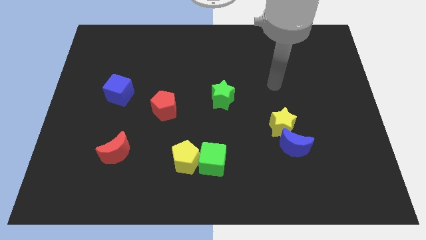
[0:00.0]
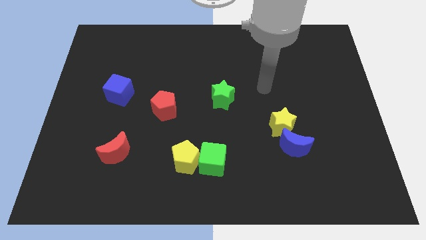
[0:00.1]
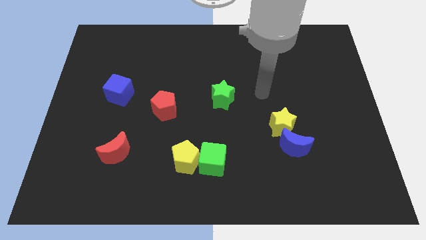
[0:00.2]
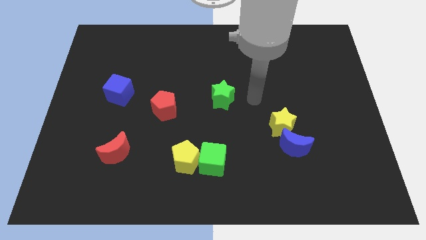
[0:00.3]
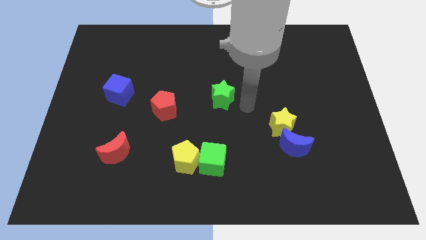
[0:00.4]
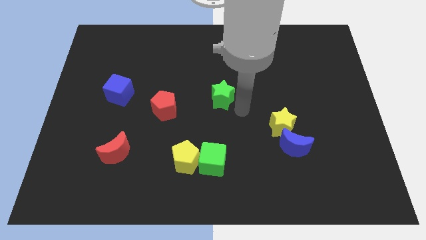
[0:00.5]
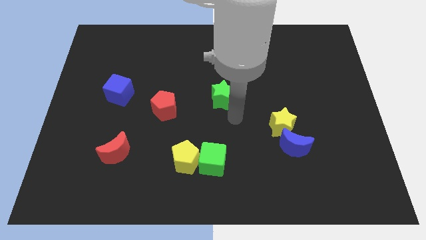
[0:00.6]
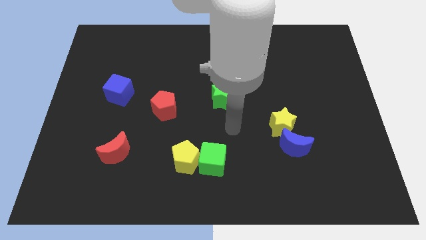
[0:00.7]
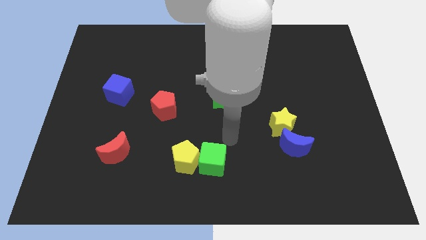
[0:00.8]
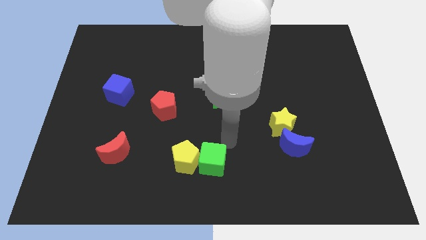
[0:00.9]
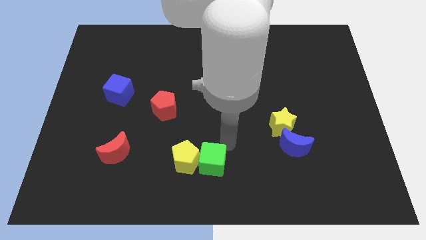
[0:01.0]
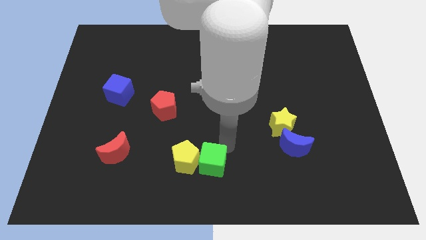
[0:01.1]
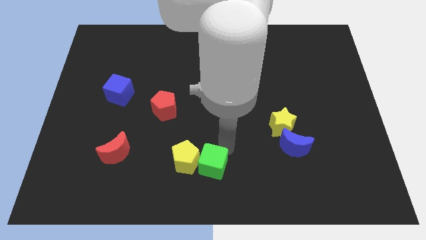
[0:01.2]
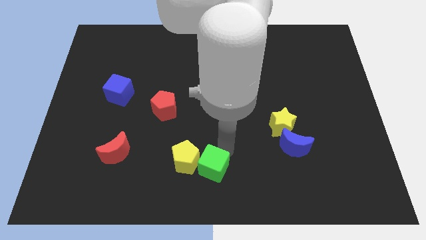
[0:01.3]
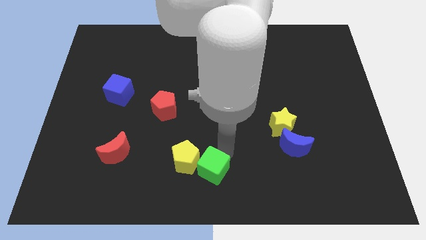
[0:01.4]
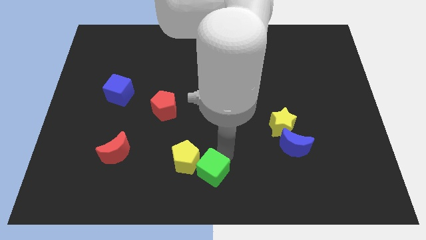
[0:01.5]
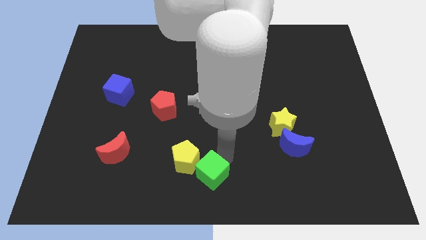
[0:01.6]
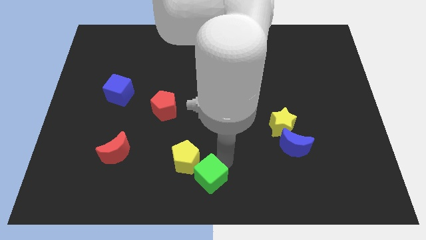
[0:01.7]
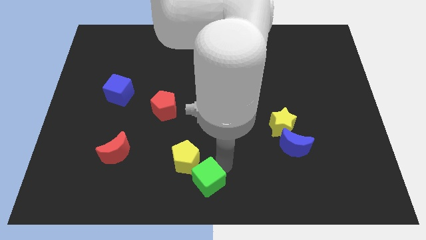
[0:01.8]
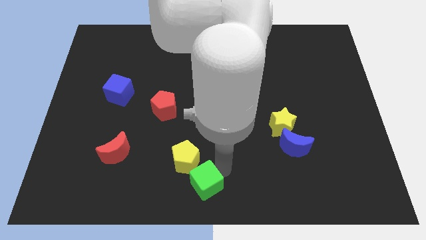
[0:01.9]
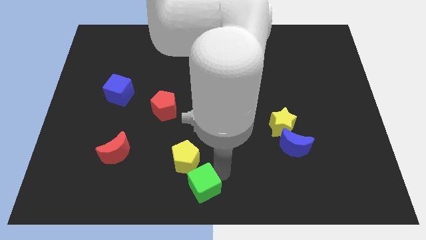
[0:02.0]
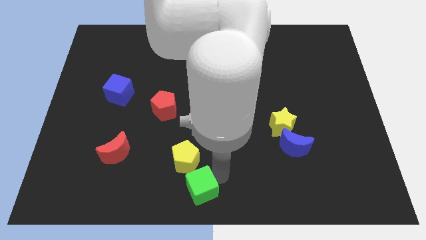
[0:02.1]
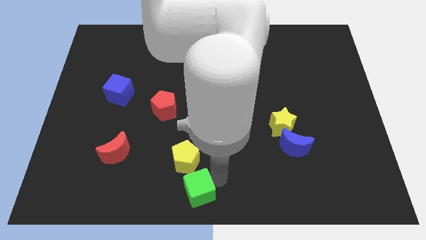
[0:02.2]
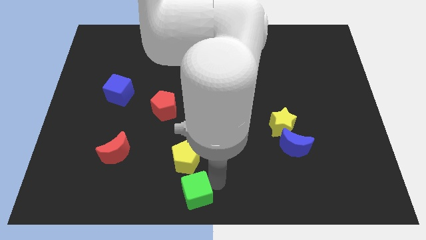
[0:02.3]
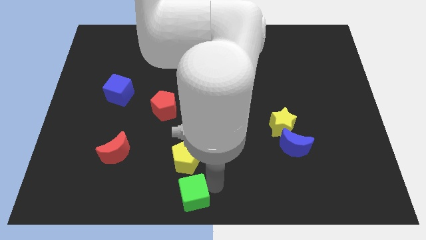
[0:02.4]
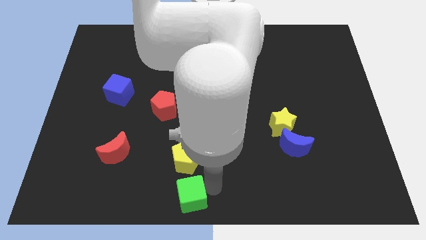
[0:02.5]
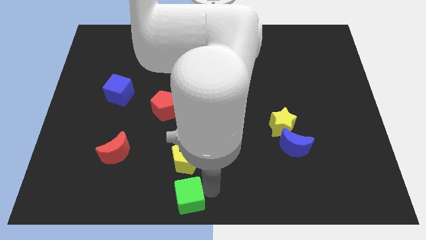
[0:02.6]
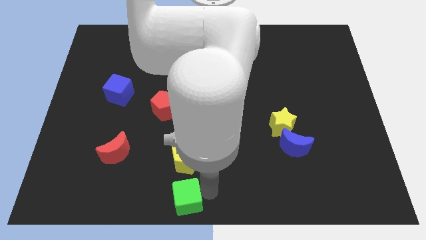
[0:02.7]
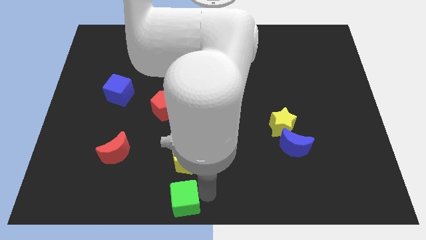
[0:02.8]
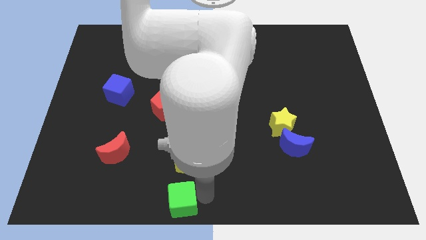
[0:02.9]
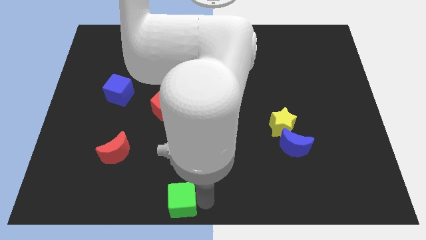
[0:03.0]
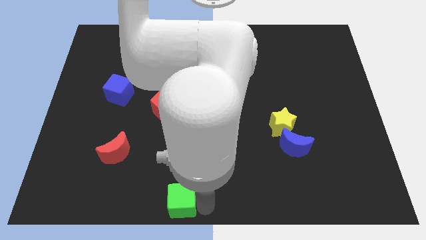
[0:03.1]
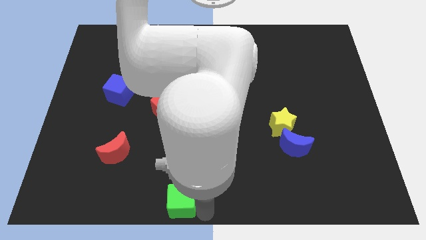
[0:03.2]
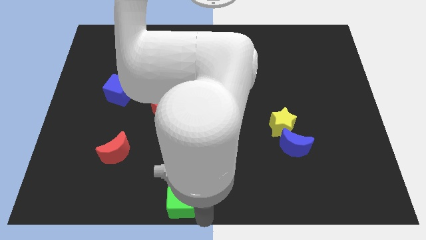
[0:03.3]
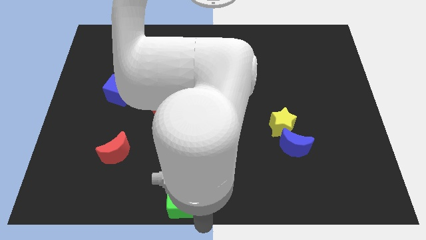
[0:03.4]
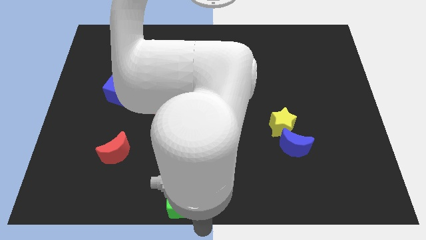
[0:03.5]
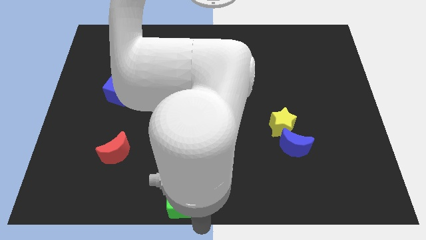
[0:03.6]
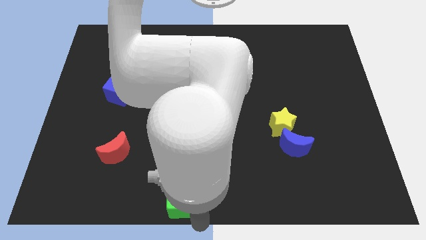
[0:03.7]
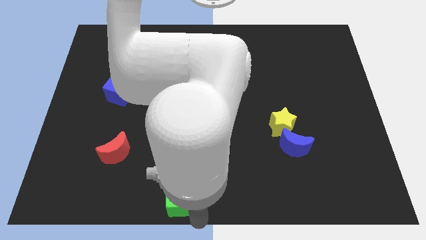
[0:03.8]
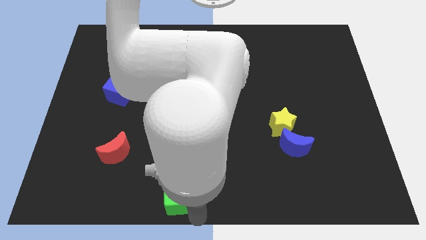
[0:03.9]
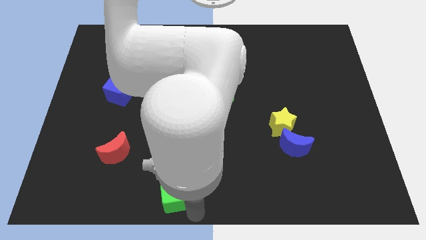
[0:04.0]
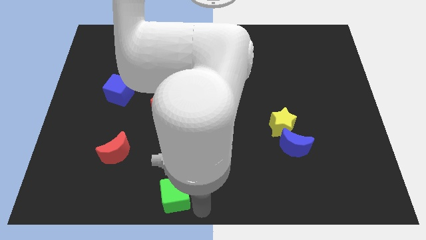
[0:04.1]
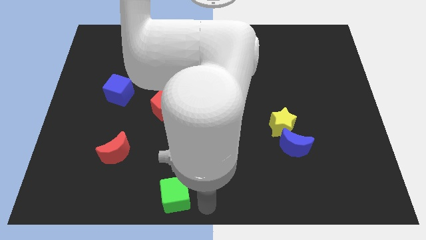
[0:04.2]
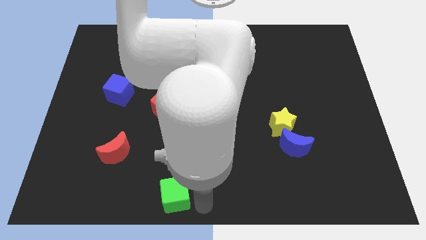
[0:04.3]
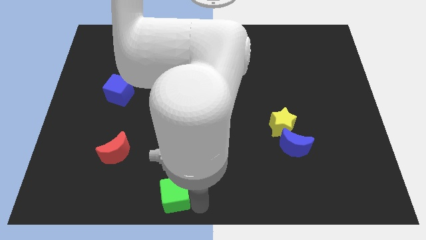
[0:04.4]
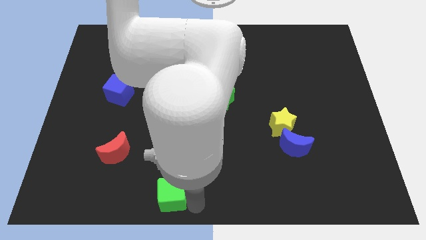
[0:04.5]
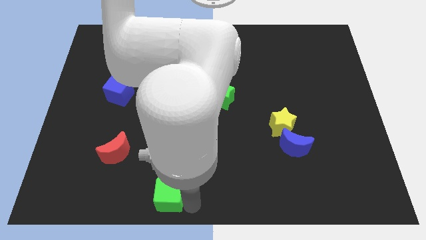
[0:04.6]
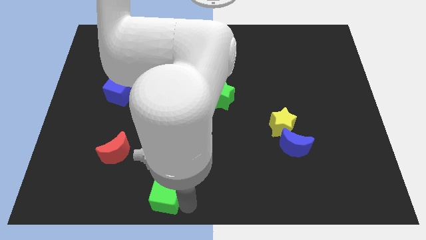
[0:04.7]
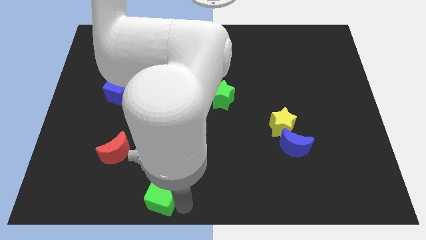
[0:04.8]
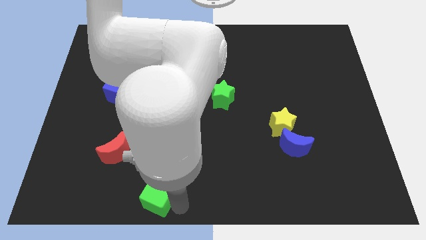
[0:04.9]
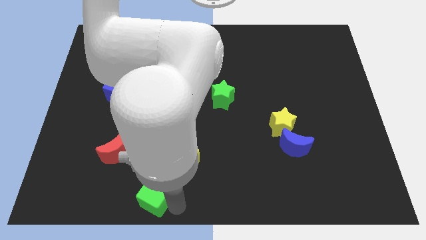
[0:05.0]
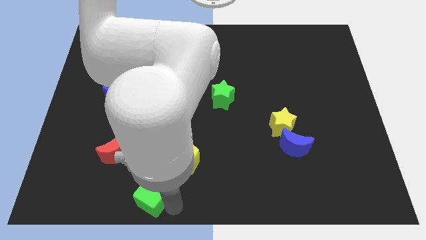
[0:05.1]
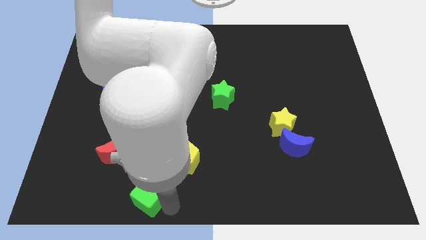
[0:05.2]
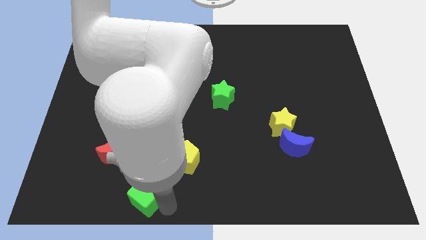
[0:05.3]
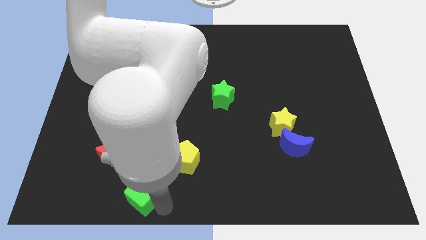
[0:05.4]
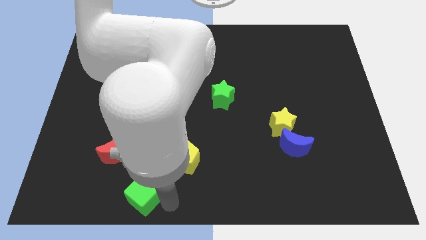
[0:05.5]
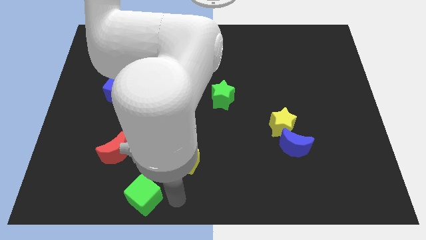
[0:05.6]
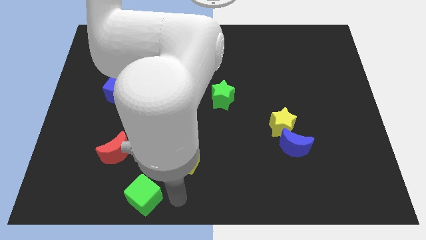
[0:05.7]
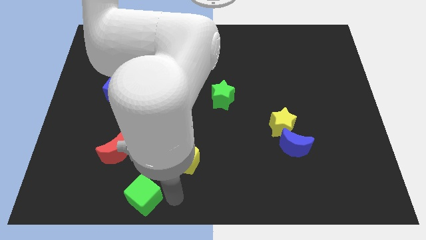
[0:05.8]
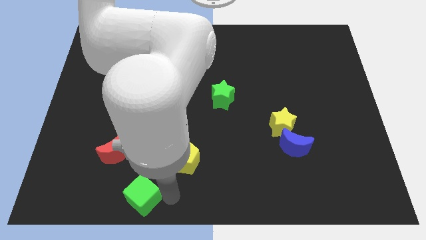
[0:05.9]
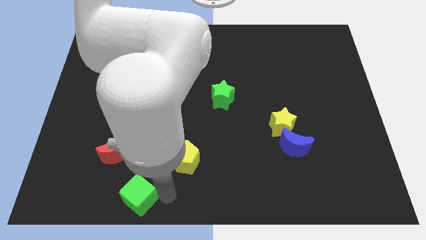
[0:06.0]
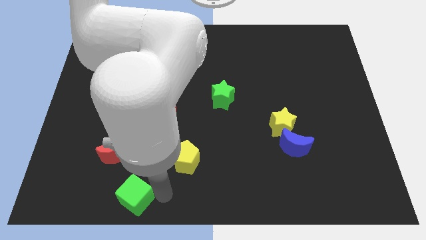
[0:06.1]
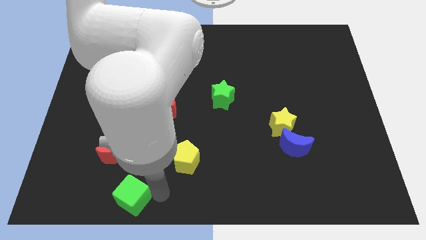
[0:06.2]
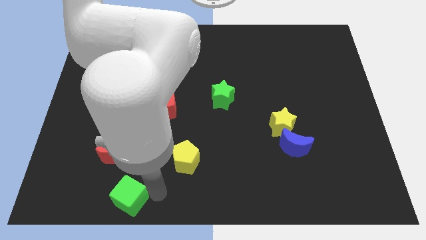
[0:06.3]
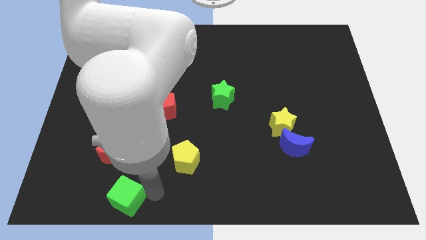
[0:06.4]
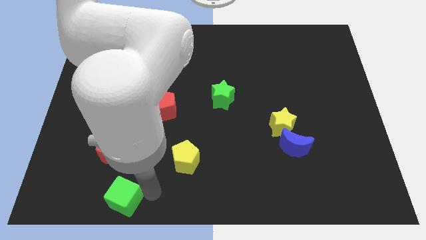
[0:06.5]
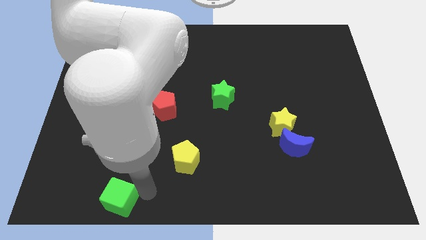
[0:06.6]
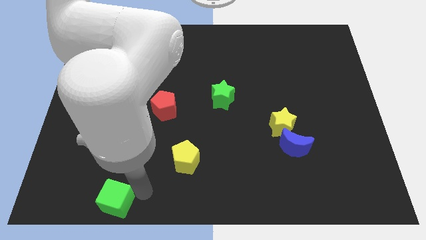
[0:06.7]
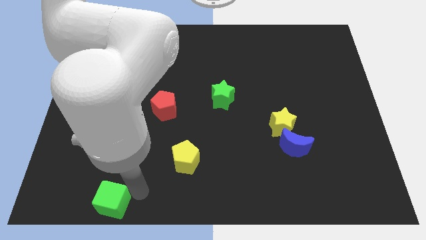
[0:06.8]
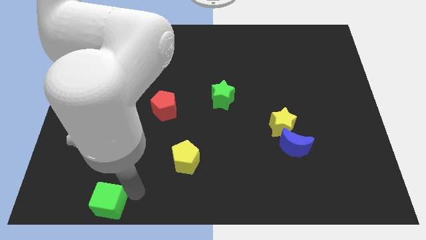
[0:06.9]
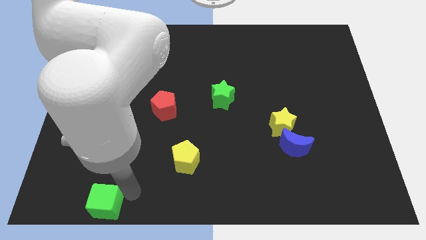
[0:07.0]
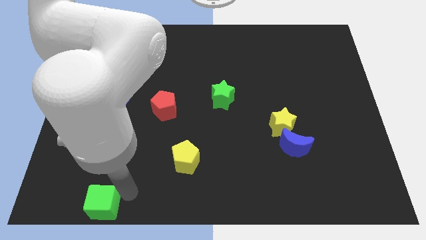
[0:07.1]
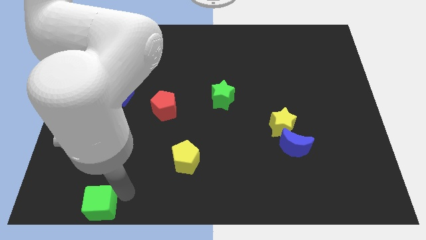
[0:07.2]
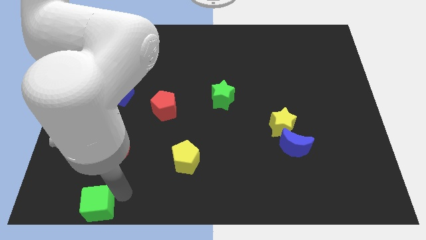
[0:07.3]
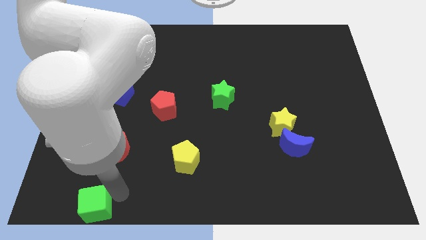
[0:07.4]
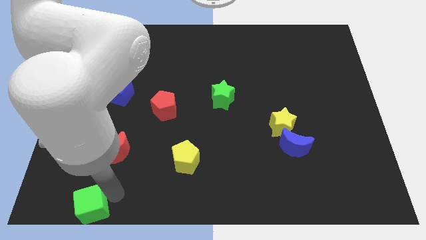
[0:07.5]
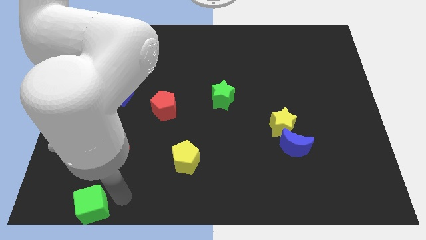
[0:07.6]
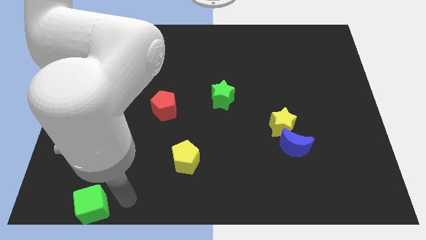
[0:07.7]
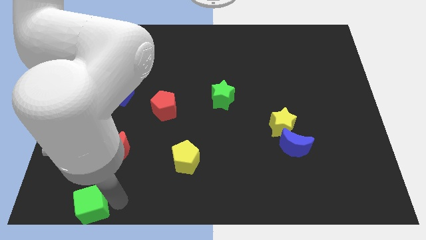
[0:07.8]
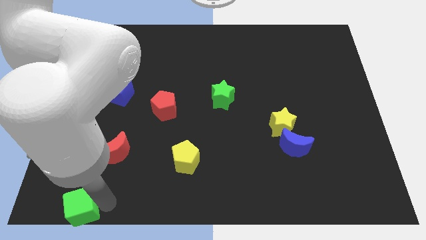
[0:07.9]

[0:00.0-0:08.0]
slide the green cube to the lower left corner
